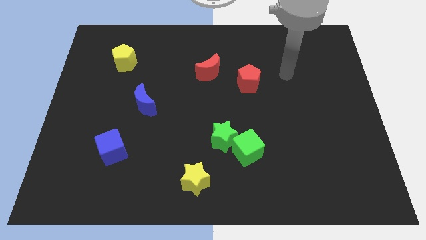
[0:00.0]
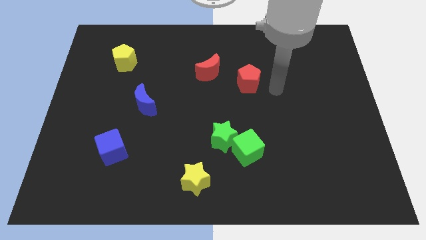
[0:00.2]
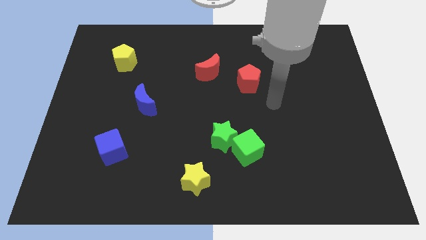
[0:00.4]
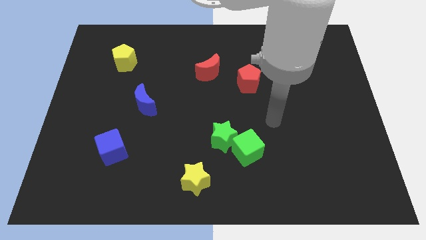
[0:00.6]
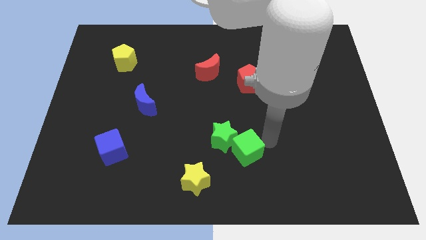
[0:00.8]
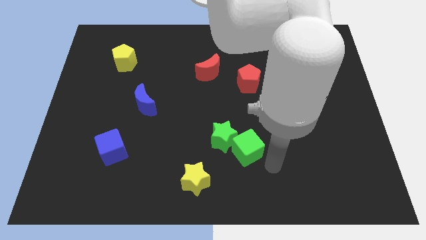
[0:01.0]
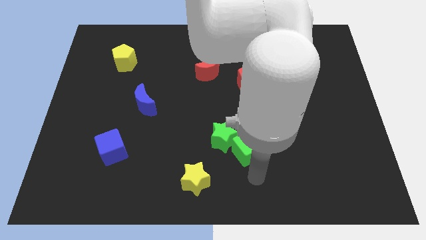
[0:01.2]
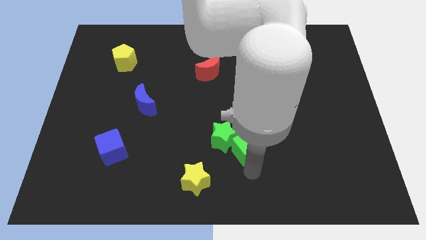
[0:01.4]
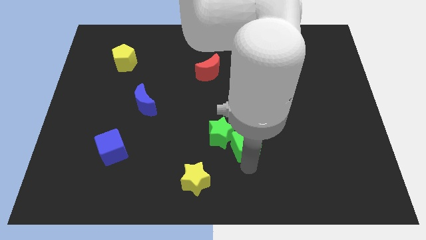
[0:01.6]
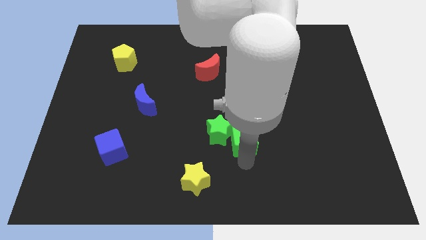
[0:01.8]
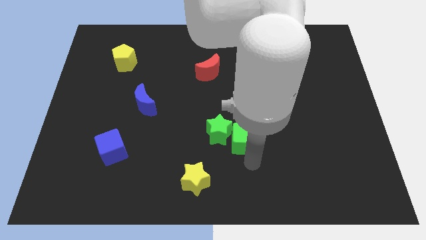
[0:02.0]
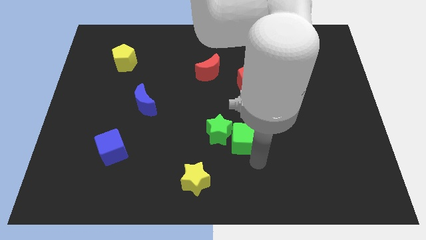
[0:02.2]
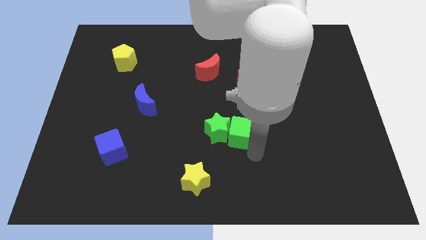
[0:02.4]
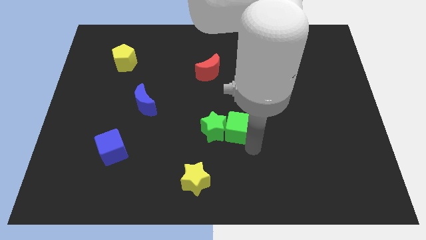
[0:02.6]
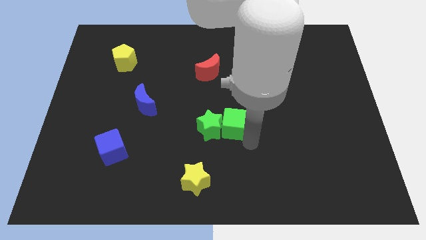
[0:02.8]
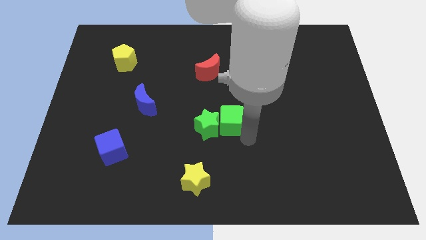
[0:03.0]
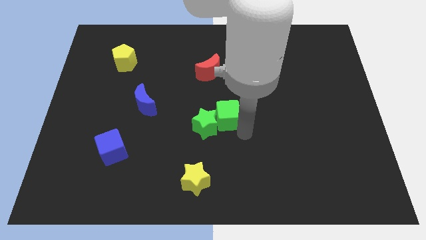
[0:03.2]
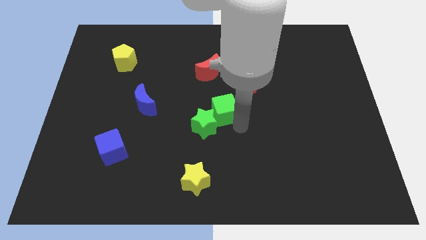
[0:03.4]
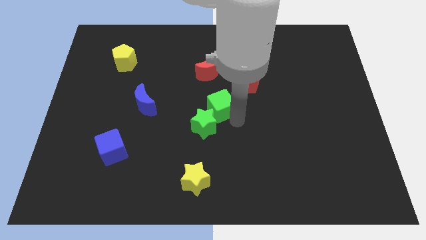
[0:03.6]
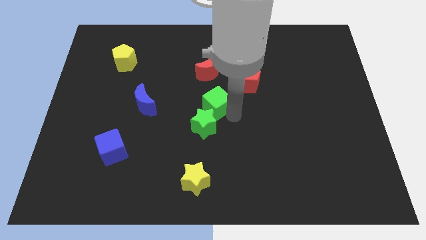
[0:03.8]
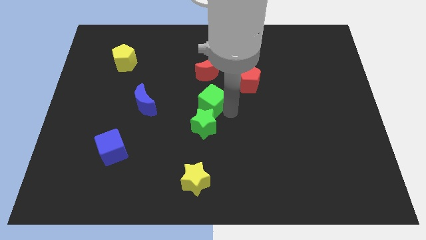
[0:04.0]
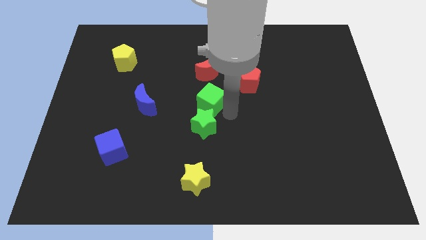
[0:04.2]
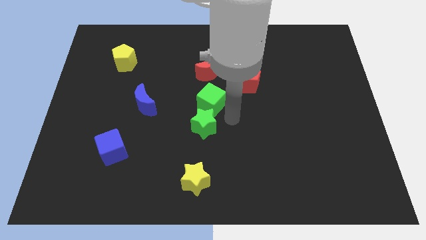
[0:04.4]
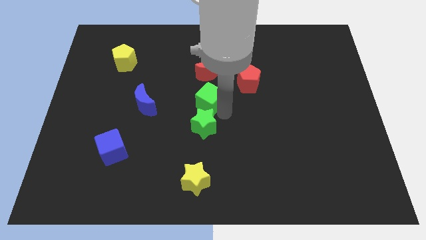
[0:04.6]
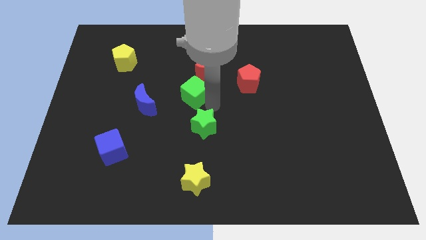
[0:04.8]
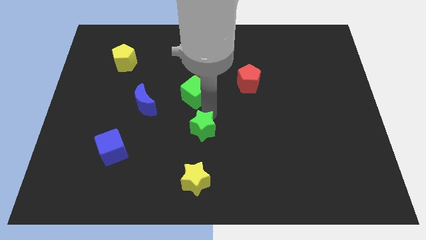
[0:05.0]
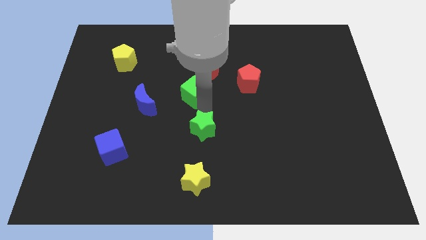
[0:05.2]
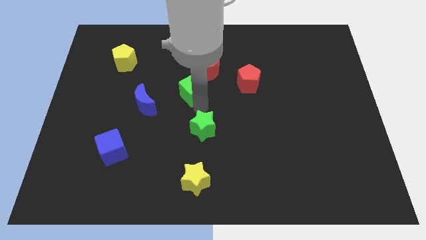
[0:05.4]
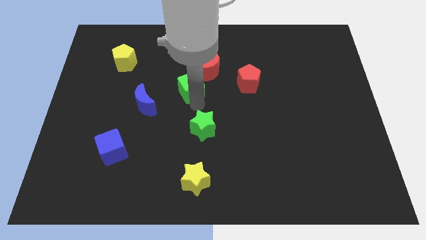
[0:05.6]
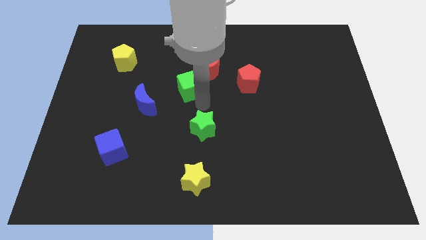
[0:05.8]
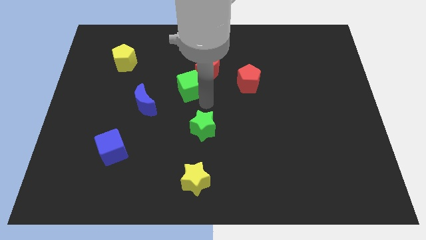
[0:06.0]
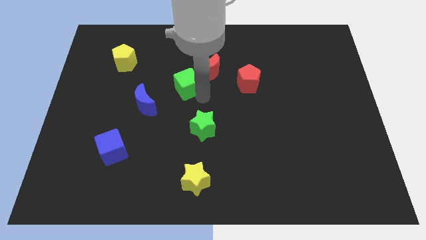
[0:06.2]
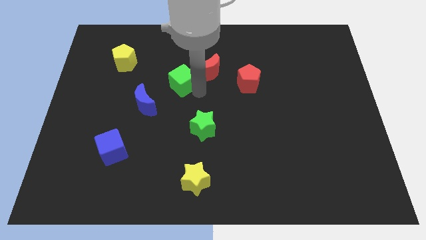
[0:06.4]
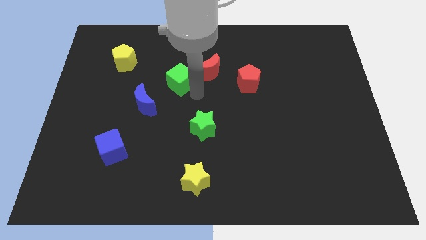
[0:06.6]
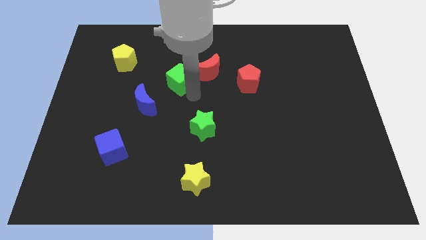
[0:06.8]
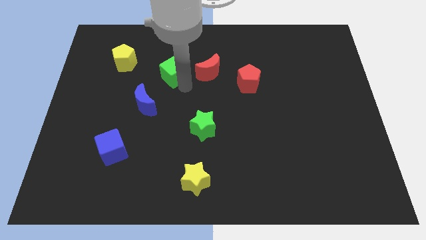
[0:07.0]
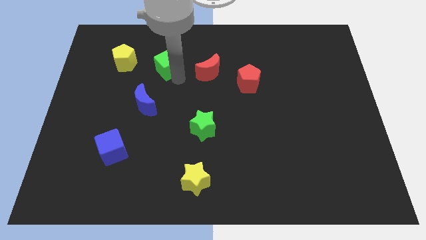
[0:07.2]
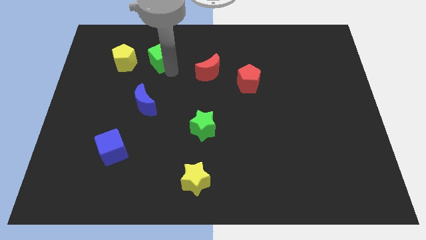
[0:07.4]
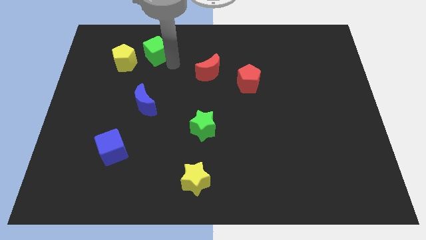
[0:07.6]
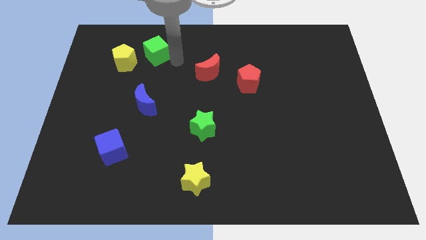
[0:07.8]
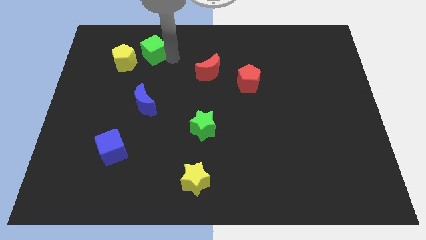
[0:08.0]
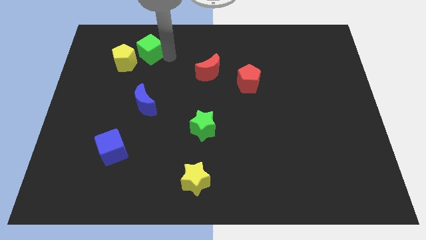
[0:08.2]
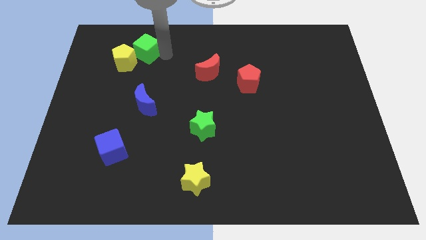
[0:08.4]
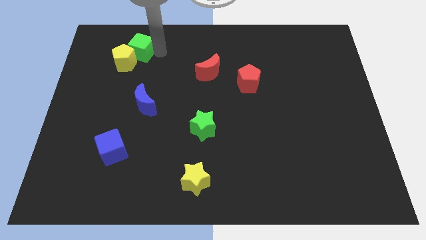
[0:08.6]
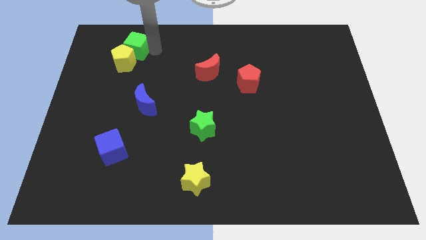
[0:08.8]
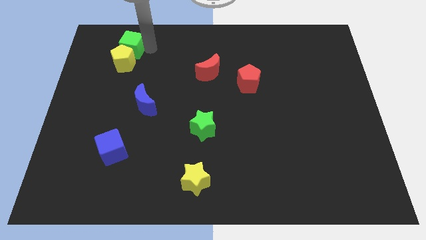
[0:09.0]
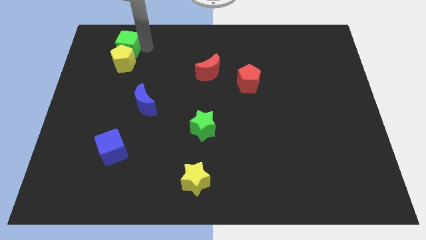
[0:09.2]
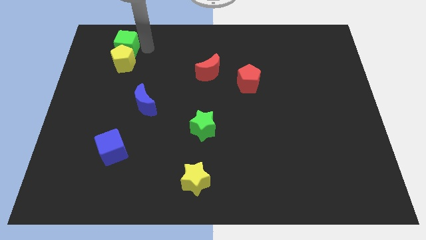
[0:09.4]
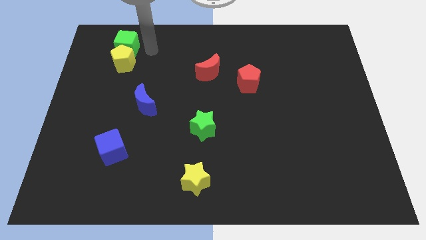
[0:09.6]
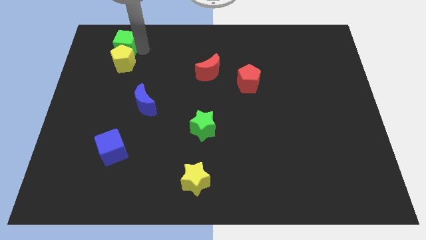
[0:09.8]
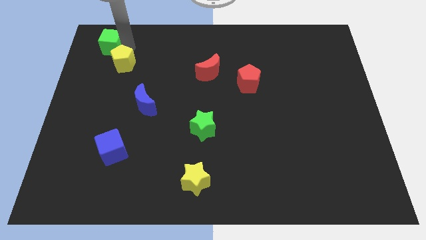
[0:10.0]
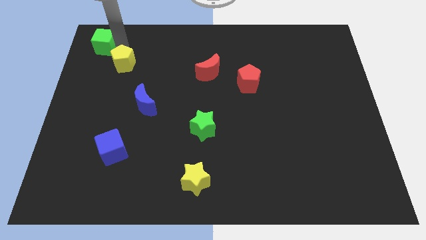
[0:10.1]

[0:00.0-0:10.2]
slide the green cube to the top left corner

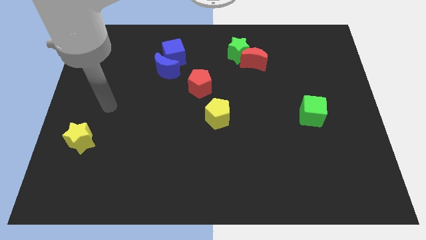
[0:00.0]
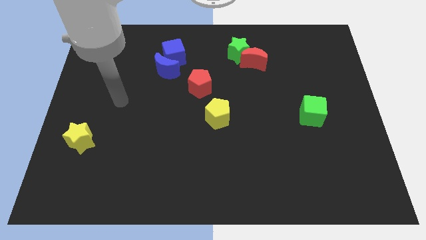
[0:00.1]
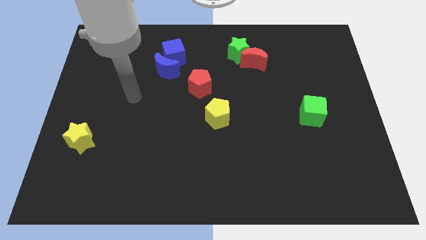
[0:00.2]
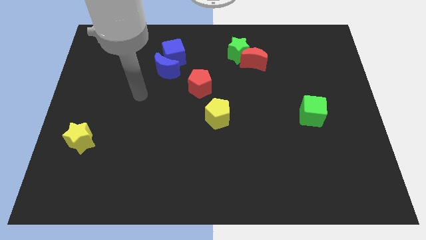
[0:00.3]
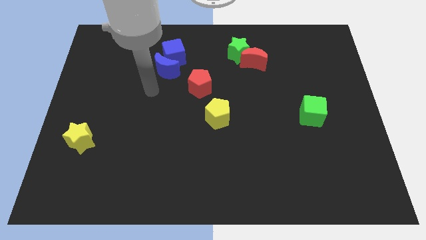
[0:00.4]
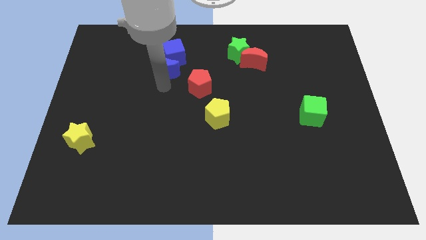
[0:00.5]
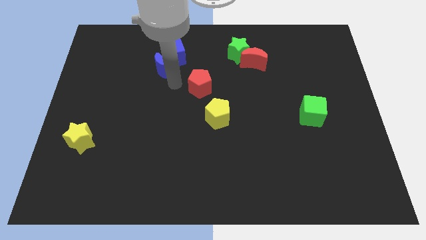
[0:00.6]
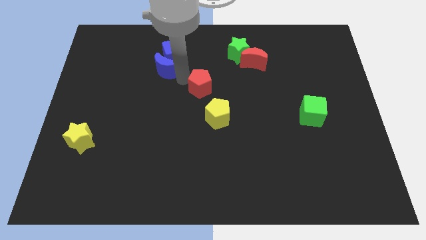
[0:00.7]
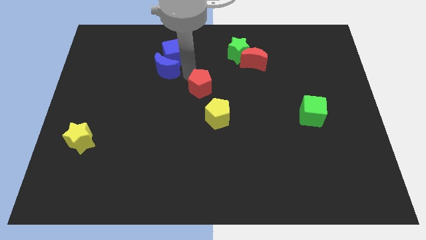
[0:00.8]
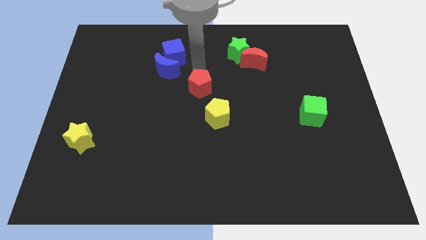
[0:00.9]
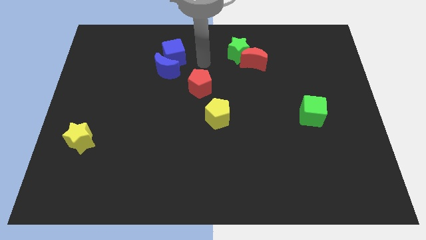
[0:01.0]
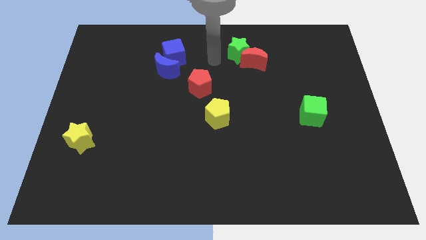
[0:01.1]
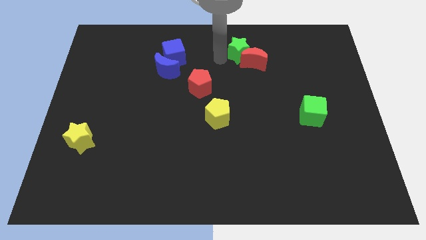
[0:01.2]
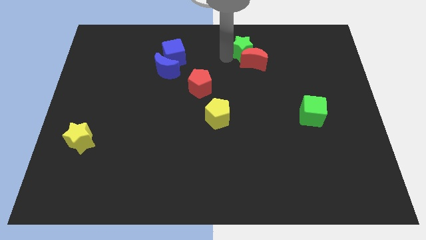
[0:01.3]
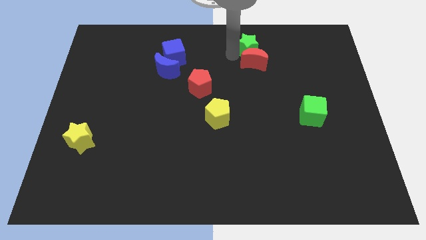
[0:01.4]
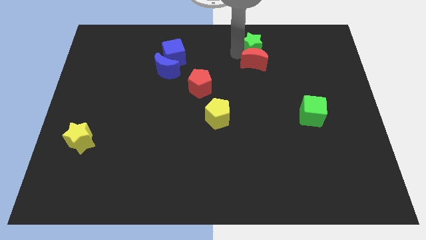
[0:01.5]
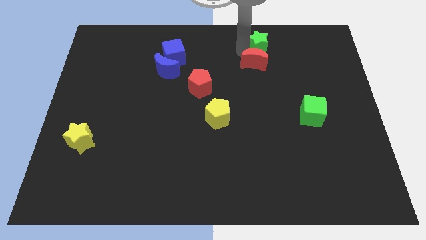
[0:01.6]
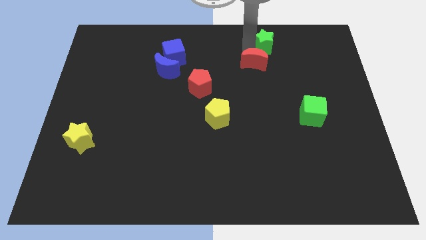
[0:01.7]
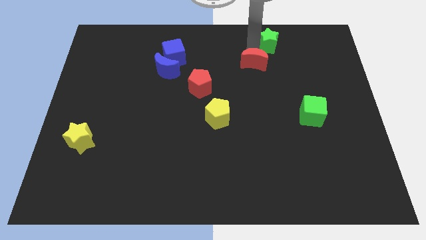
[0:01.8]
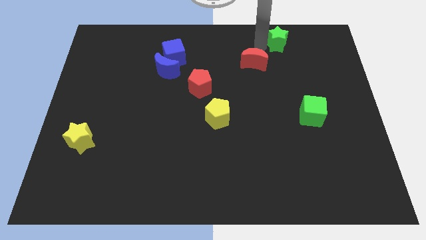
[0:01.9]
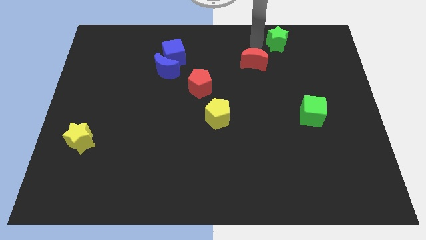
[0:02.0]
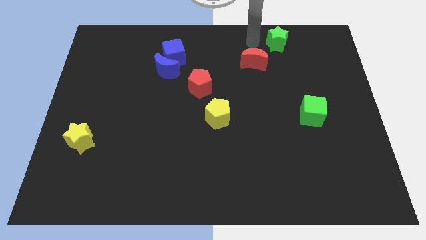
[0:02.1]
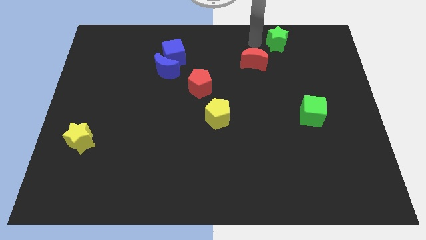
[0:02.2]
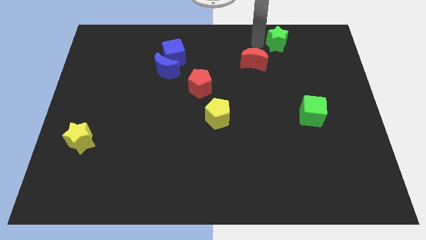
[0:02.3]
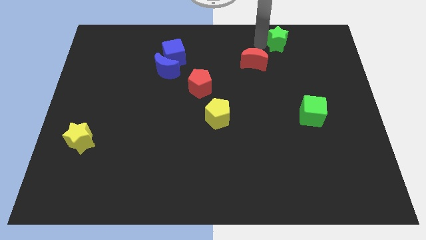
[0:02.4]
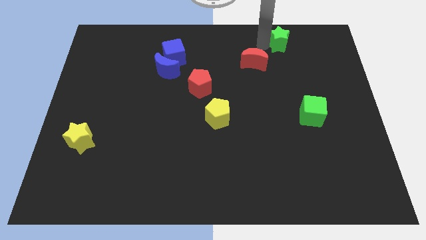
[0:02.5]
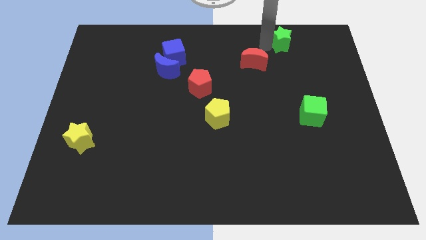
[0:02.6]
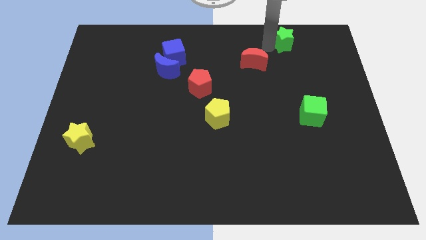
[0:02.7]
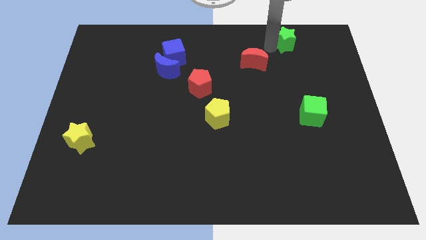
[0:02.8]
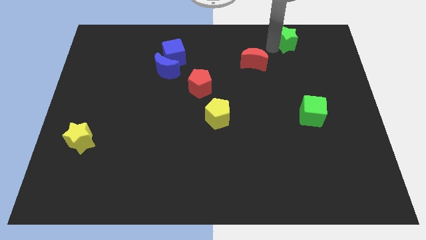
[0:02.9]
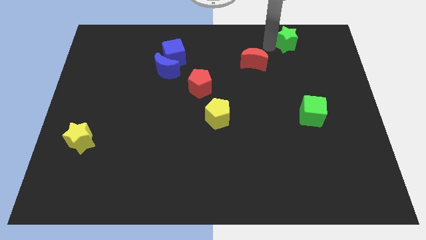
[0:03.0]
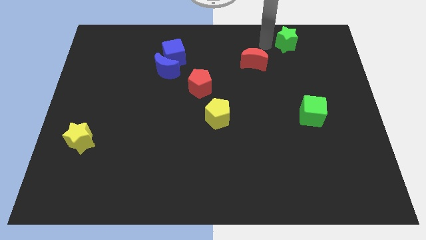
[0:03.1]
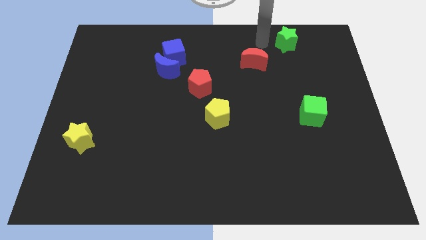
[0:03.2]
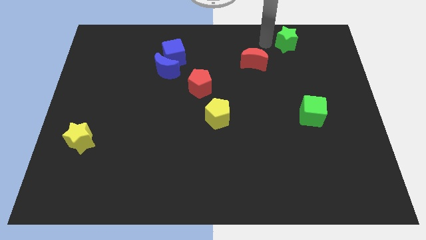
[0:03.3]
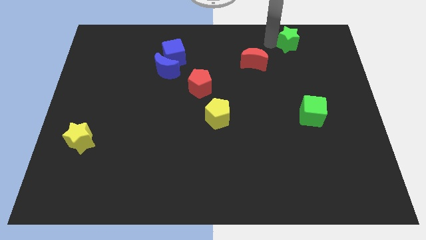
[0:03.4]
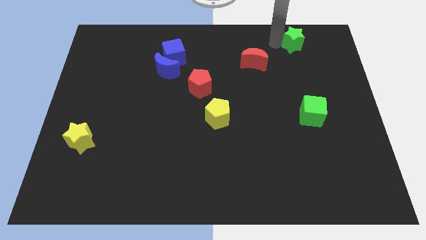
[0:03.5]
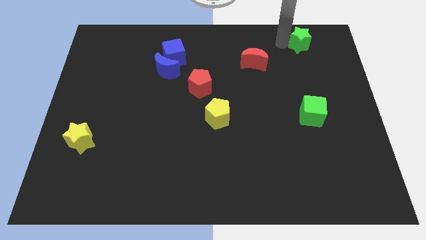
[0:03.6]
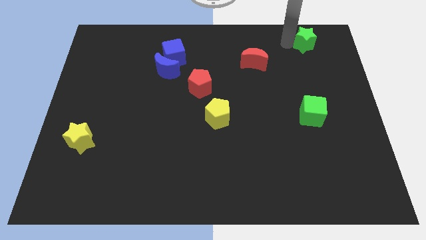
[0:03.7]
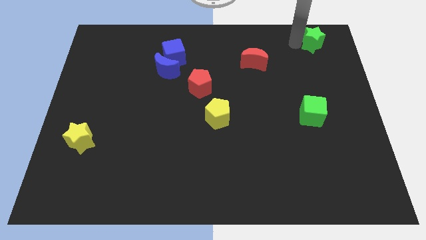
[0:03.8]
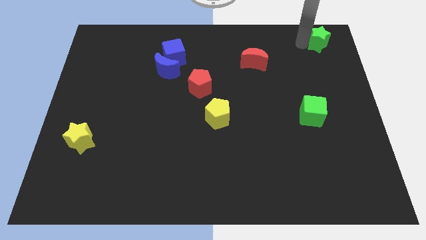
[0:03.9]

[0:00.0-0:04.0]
put the green star to the top right corner
